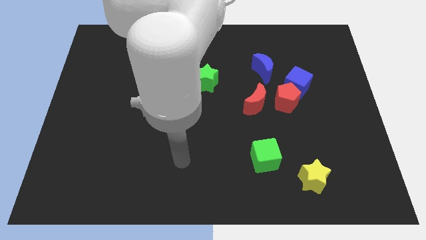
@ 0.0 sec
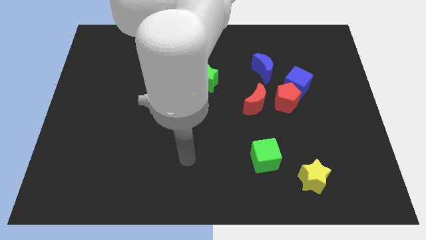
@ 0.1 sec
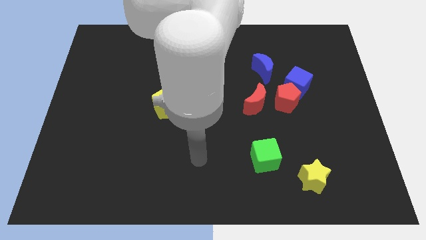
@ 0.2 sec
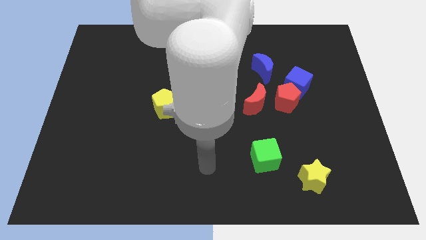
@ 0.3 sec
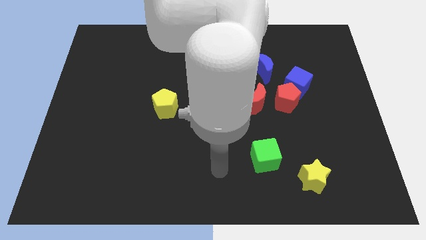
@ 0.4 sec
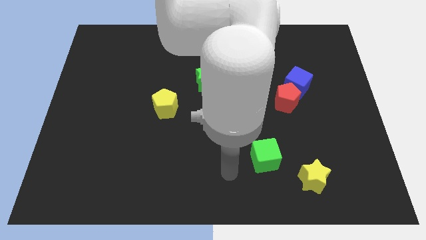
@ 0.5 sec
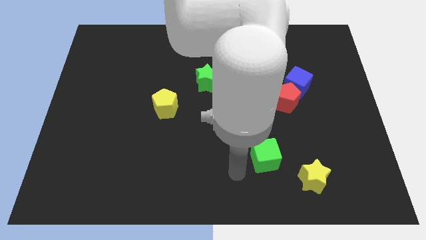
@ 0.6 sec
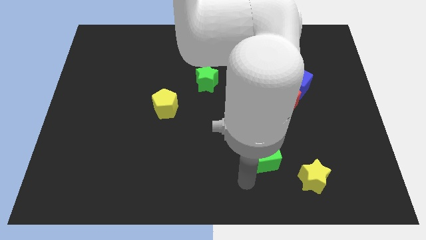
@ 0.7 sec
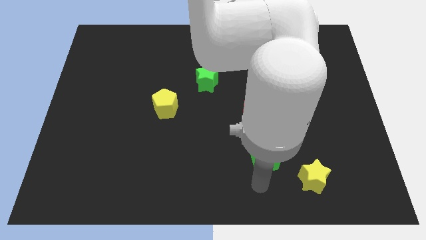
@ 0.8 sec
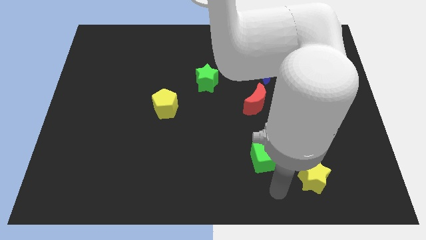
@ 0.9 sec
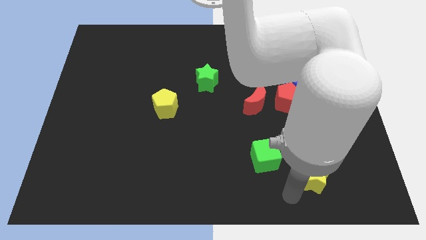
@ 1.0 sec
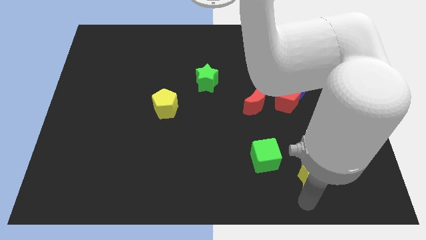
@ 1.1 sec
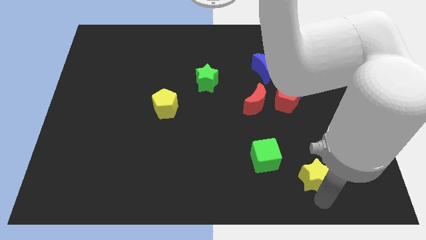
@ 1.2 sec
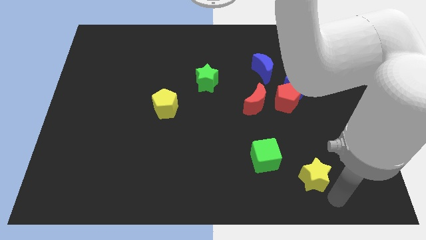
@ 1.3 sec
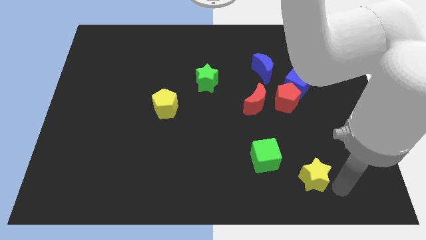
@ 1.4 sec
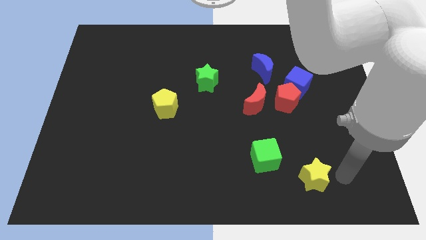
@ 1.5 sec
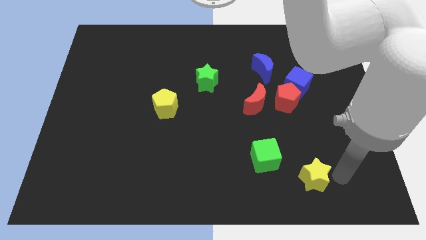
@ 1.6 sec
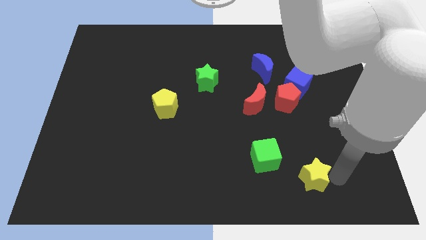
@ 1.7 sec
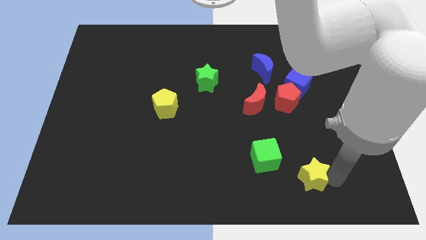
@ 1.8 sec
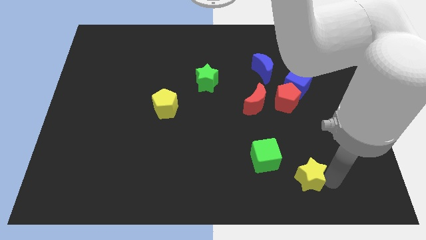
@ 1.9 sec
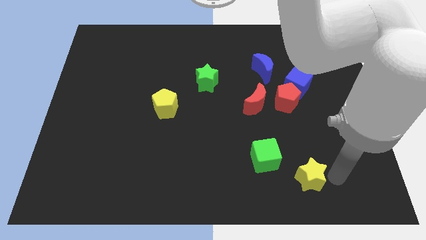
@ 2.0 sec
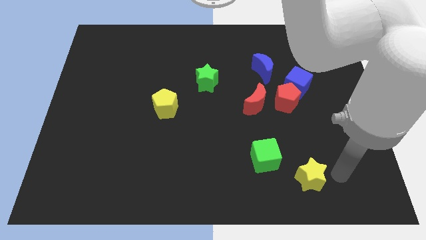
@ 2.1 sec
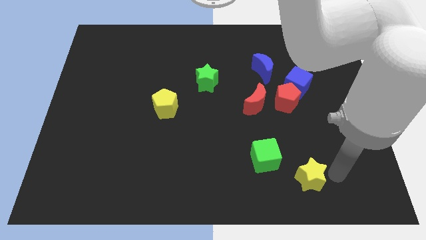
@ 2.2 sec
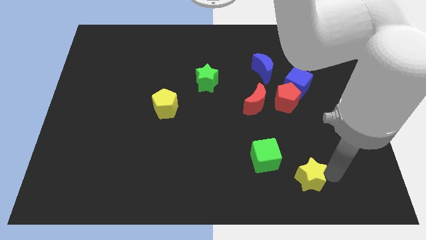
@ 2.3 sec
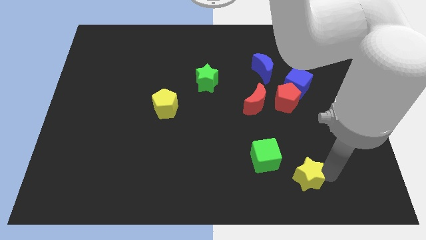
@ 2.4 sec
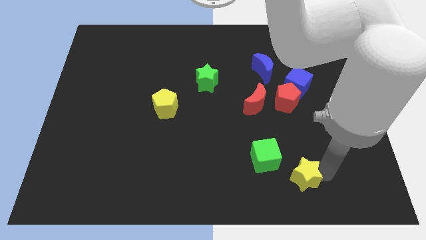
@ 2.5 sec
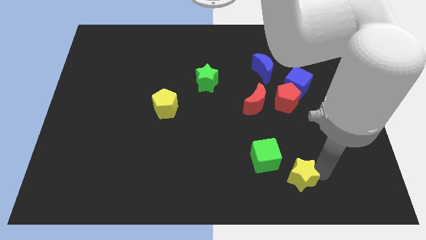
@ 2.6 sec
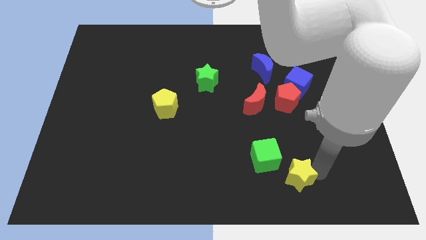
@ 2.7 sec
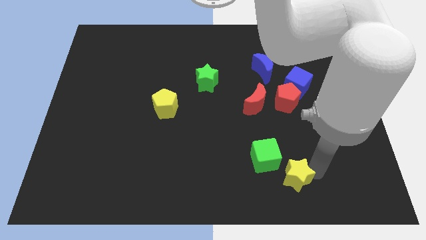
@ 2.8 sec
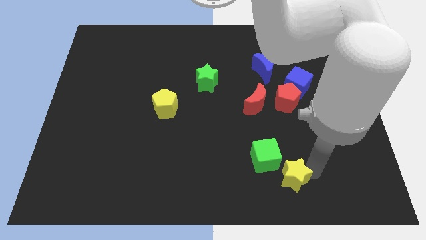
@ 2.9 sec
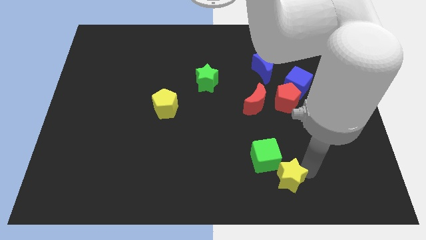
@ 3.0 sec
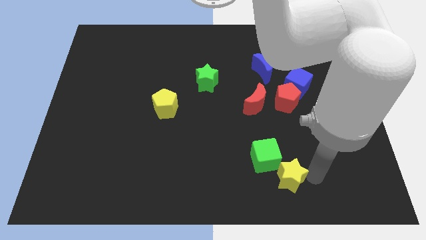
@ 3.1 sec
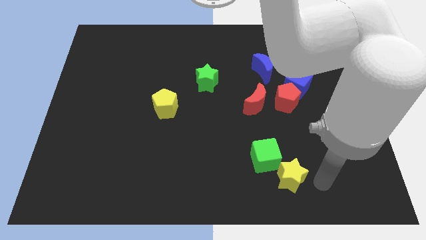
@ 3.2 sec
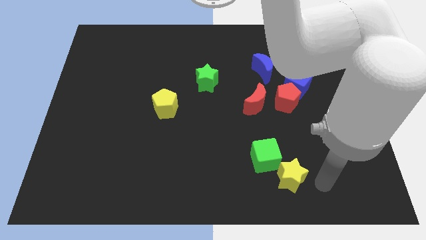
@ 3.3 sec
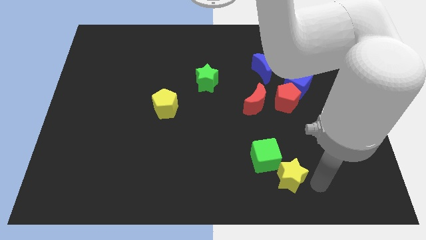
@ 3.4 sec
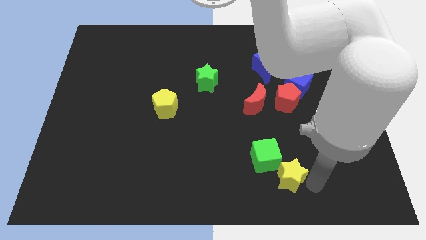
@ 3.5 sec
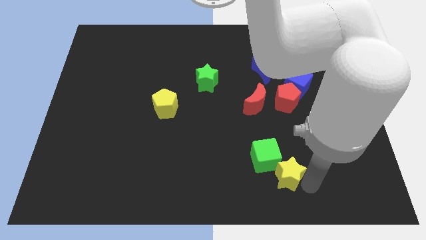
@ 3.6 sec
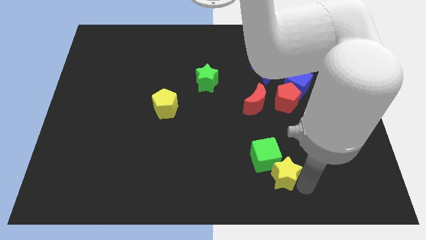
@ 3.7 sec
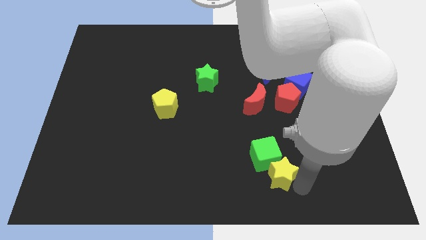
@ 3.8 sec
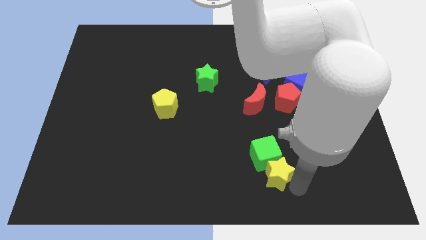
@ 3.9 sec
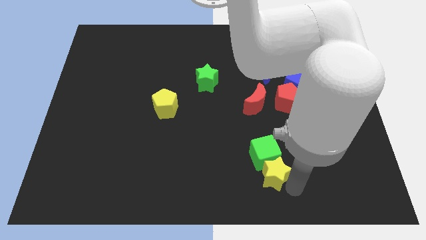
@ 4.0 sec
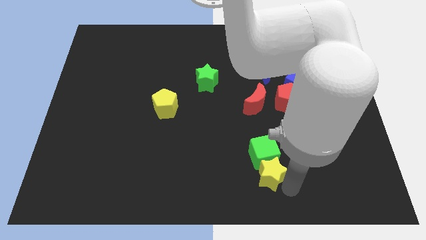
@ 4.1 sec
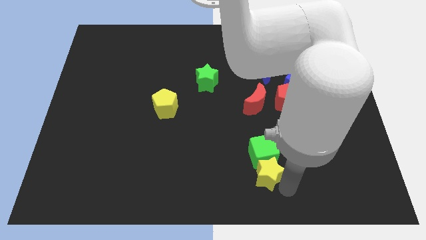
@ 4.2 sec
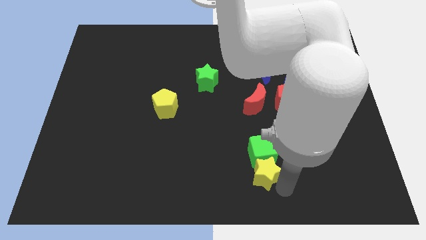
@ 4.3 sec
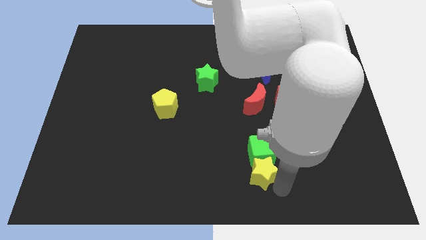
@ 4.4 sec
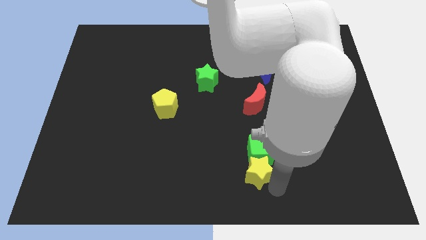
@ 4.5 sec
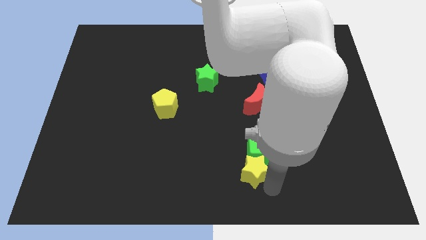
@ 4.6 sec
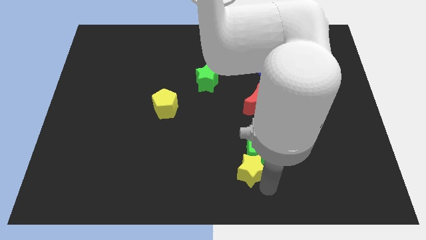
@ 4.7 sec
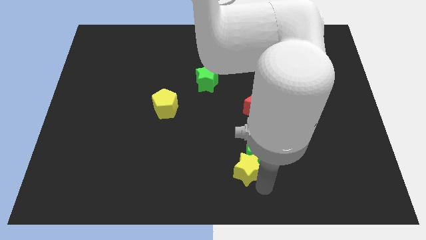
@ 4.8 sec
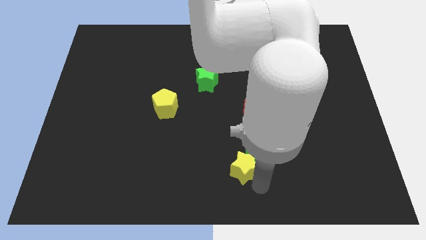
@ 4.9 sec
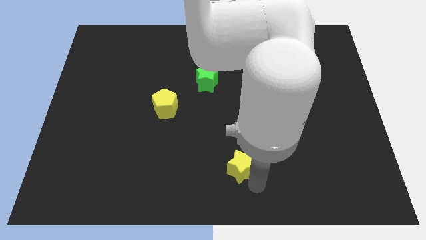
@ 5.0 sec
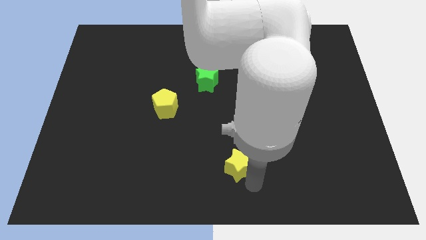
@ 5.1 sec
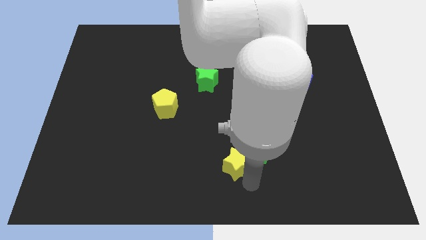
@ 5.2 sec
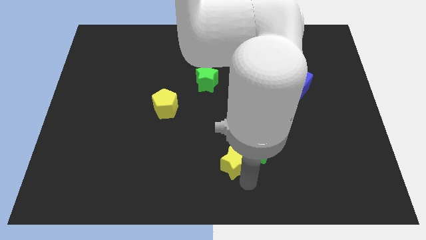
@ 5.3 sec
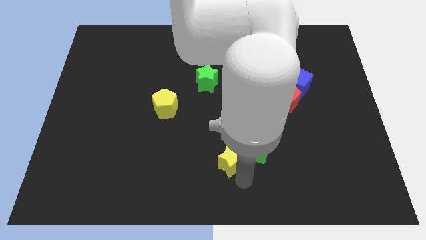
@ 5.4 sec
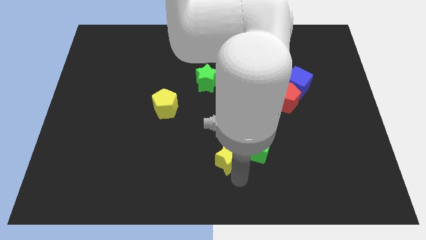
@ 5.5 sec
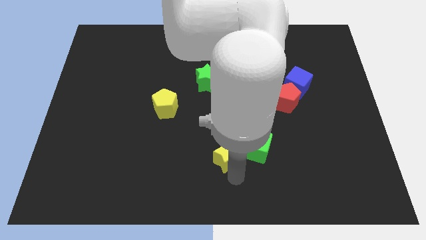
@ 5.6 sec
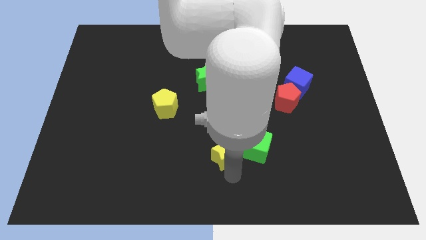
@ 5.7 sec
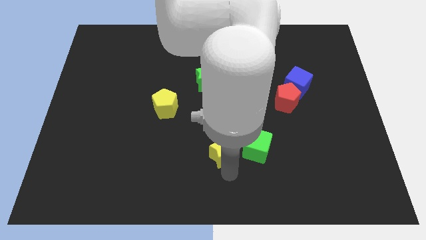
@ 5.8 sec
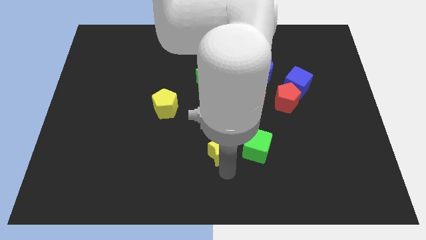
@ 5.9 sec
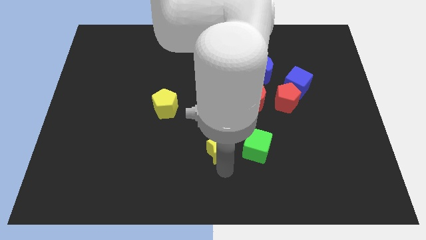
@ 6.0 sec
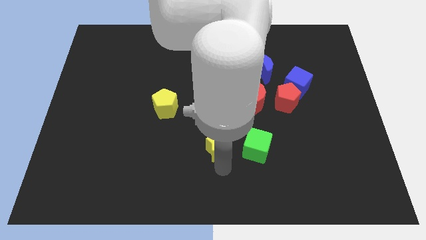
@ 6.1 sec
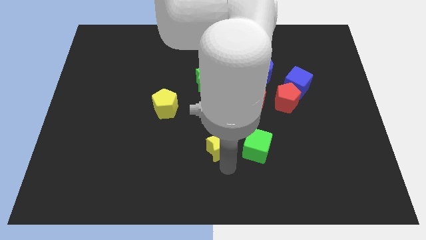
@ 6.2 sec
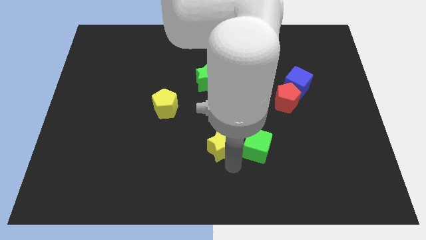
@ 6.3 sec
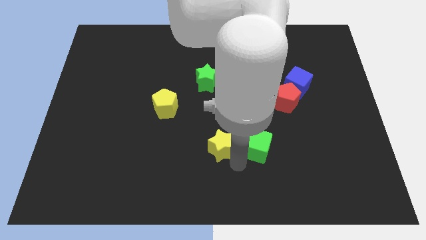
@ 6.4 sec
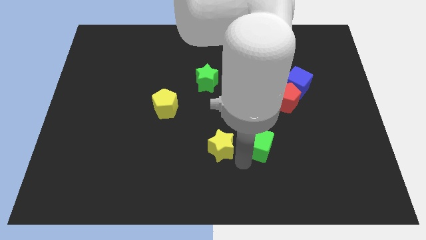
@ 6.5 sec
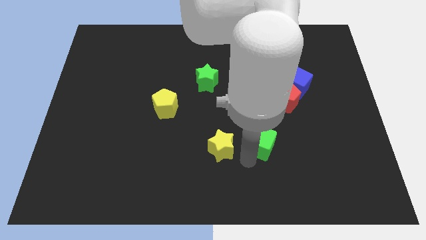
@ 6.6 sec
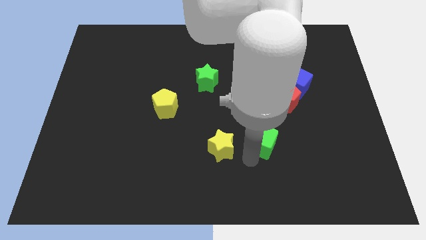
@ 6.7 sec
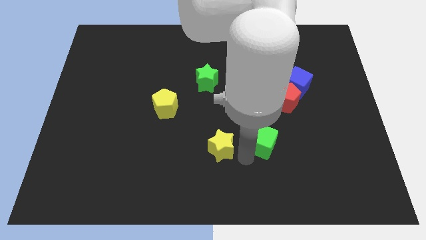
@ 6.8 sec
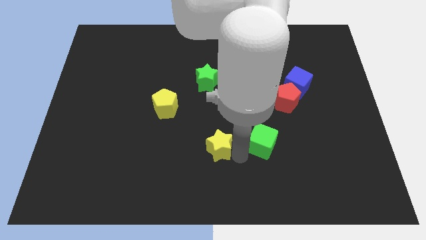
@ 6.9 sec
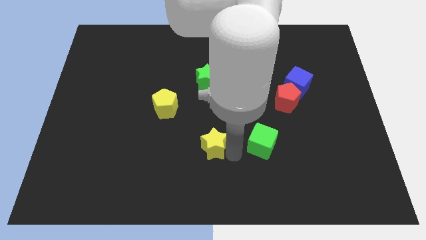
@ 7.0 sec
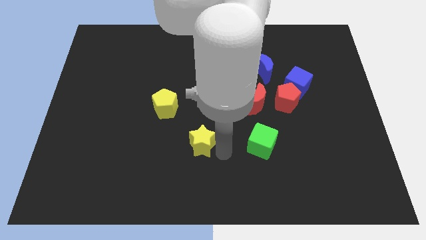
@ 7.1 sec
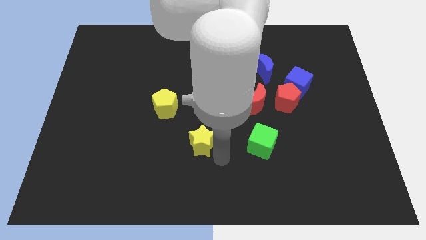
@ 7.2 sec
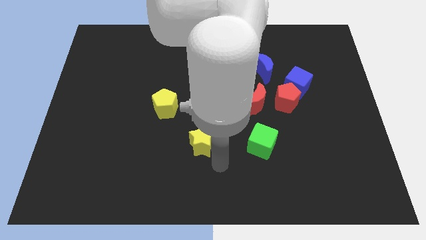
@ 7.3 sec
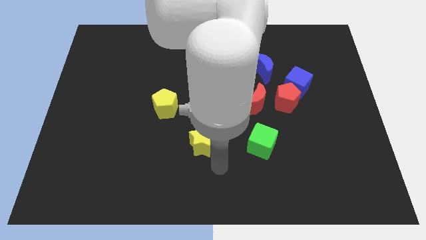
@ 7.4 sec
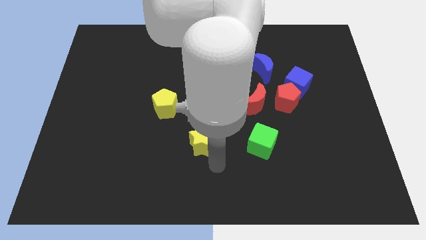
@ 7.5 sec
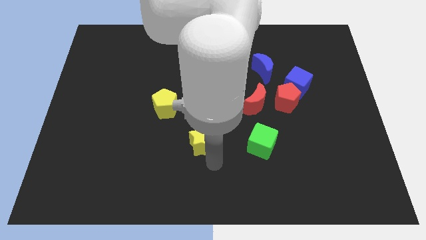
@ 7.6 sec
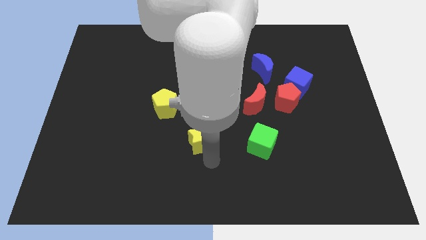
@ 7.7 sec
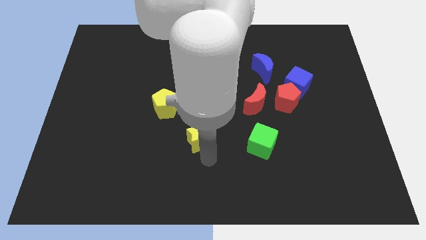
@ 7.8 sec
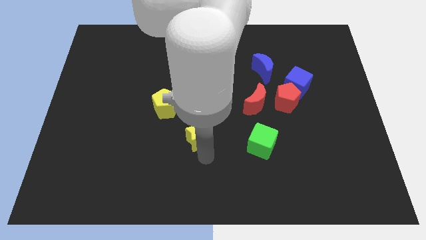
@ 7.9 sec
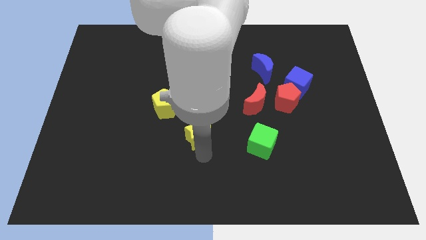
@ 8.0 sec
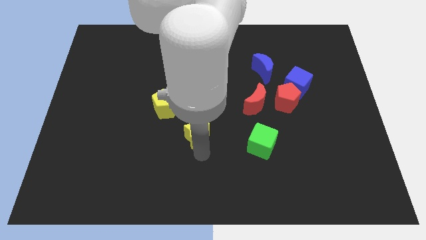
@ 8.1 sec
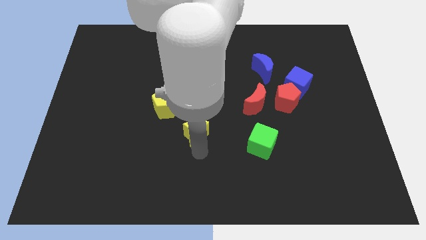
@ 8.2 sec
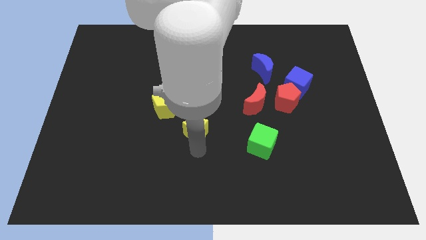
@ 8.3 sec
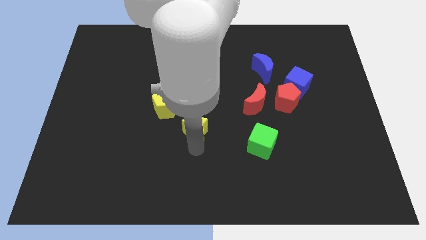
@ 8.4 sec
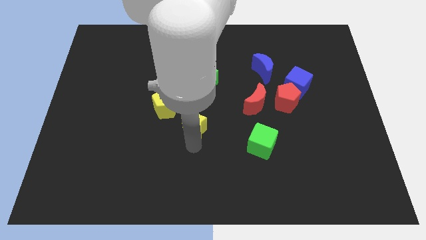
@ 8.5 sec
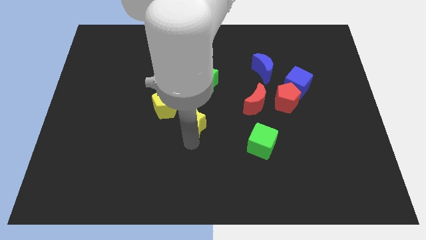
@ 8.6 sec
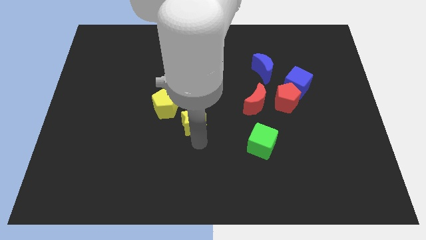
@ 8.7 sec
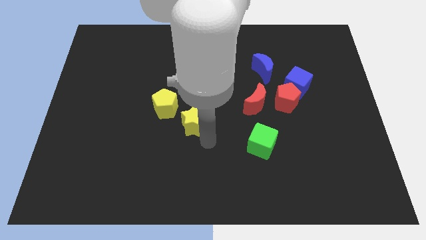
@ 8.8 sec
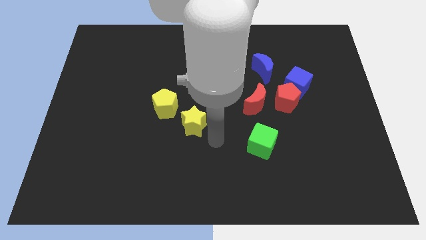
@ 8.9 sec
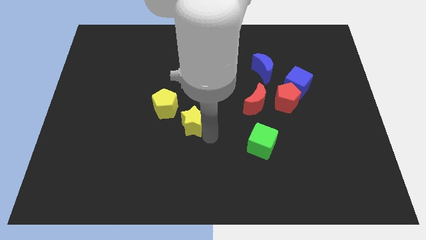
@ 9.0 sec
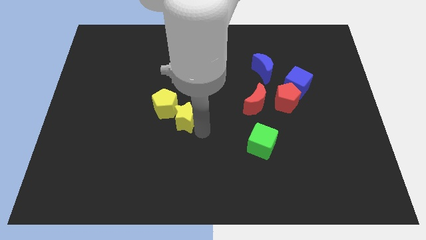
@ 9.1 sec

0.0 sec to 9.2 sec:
push the yellow star towards the yellow pentagon
